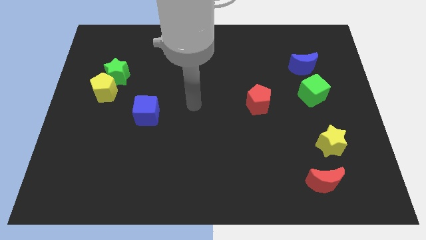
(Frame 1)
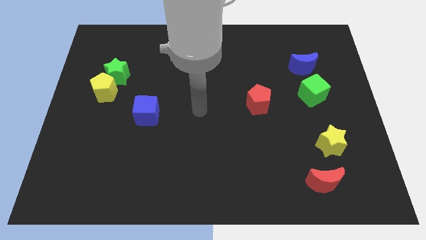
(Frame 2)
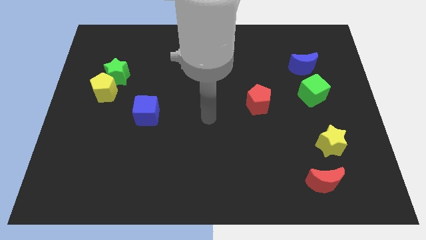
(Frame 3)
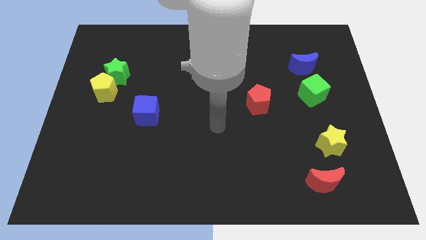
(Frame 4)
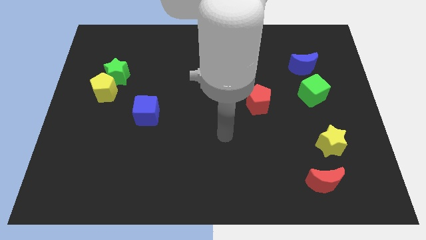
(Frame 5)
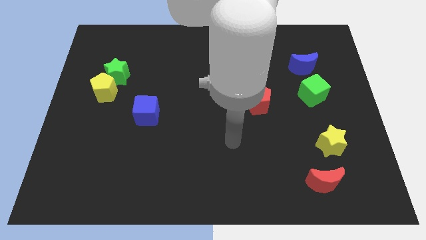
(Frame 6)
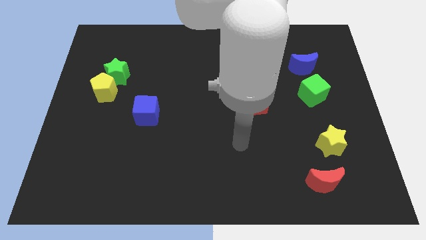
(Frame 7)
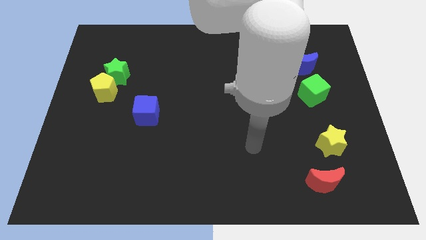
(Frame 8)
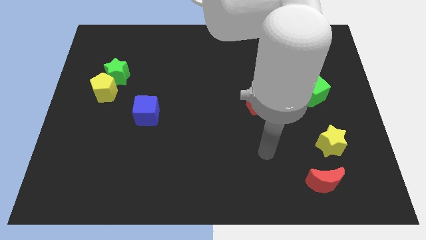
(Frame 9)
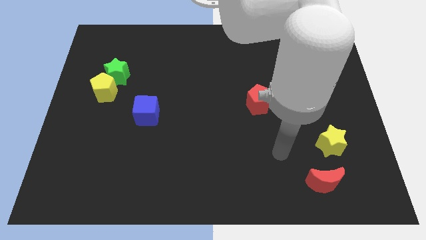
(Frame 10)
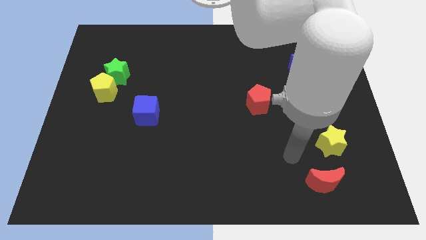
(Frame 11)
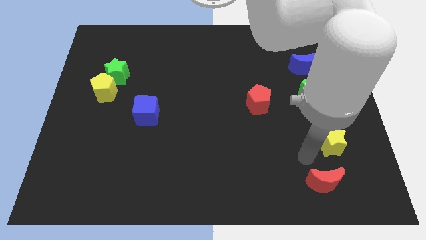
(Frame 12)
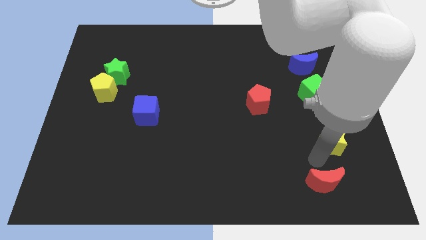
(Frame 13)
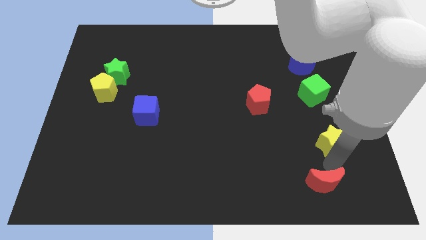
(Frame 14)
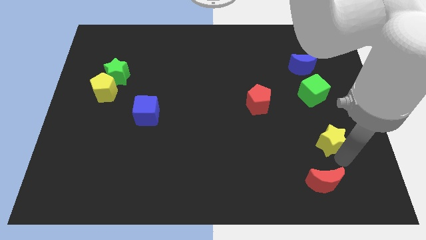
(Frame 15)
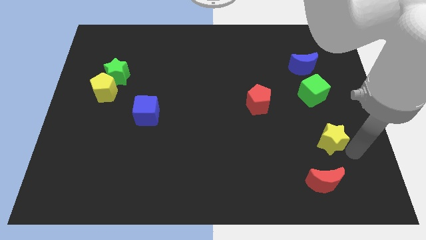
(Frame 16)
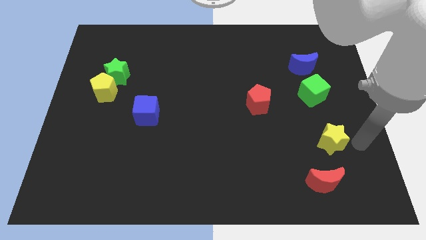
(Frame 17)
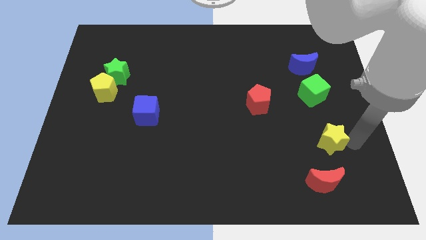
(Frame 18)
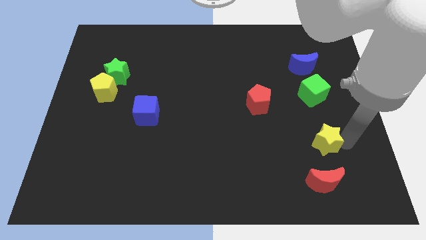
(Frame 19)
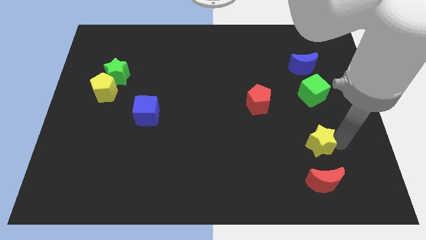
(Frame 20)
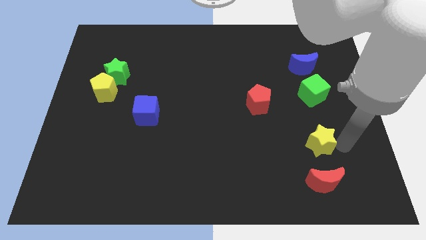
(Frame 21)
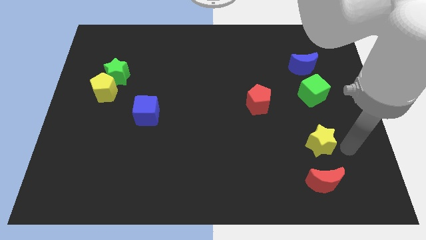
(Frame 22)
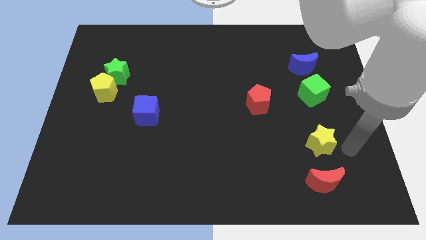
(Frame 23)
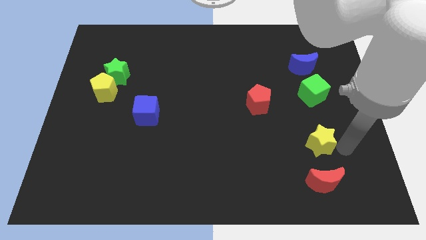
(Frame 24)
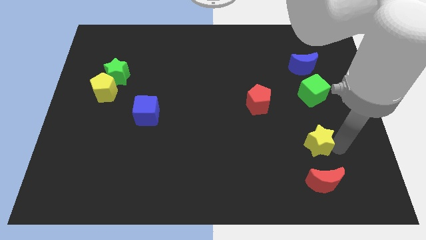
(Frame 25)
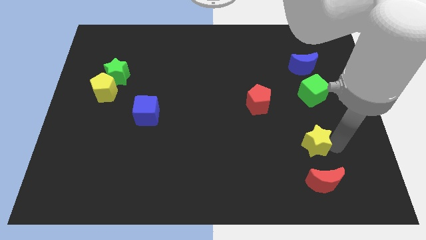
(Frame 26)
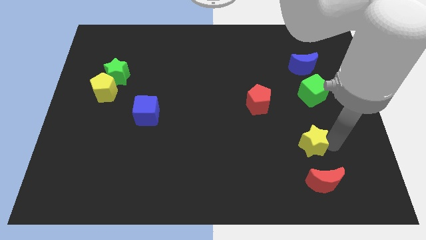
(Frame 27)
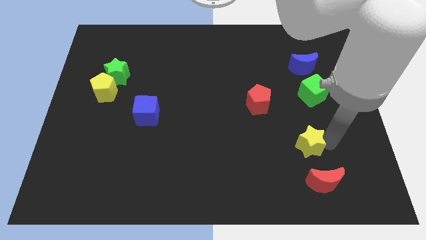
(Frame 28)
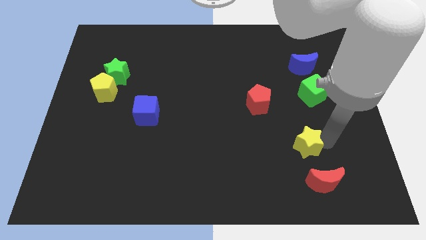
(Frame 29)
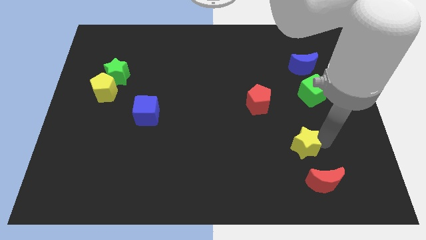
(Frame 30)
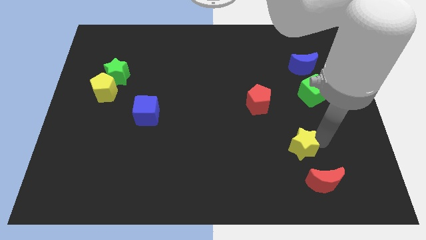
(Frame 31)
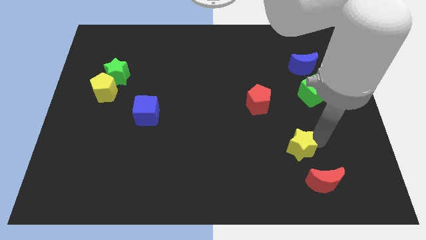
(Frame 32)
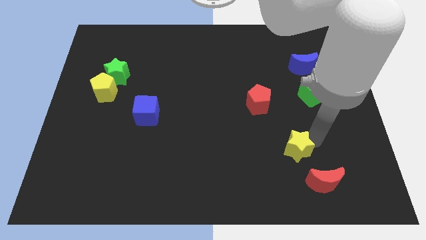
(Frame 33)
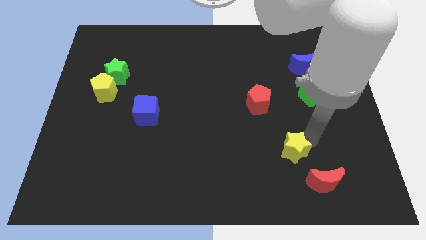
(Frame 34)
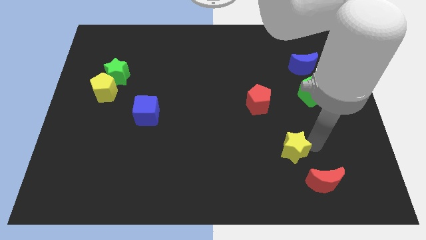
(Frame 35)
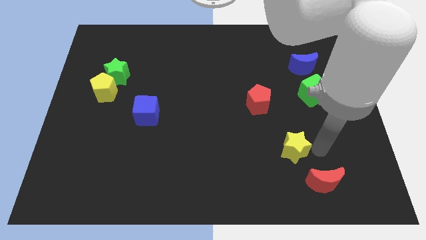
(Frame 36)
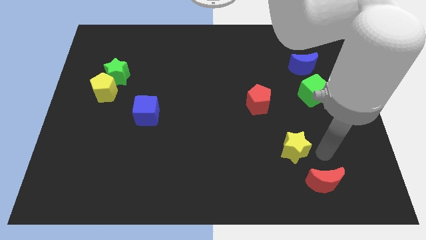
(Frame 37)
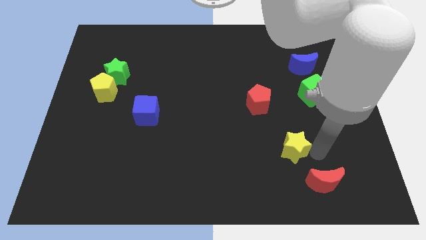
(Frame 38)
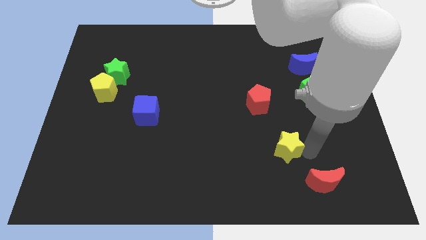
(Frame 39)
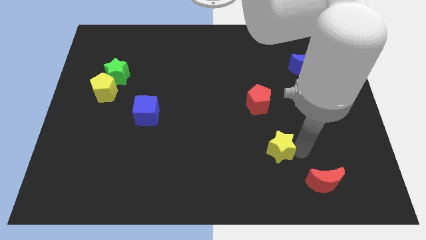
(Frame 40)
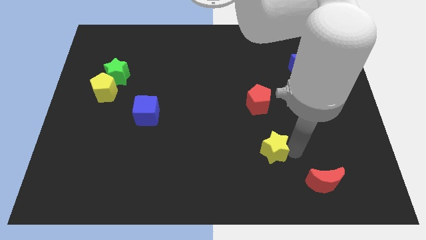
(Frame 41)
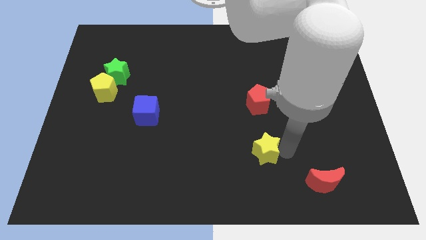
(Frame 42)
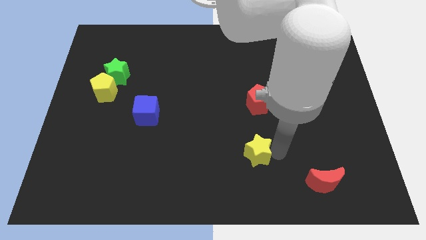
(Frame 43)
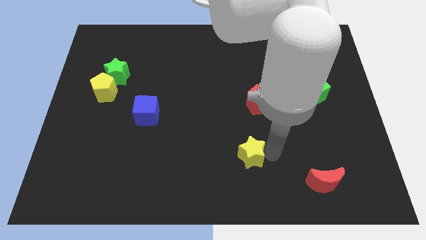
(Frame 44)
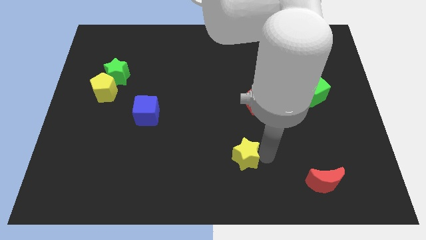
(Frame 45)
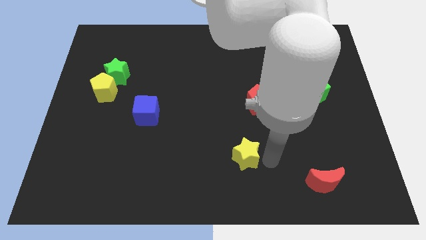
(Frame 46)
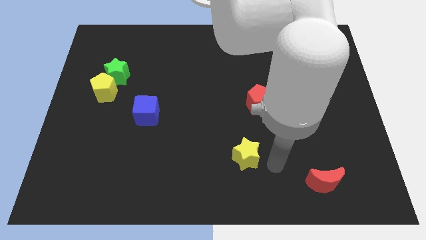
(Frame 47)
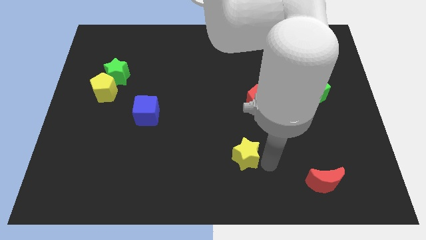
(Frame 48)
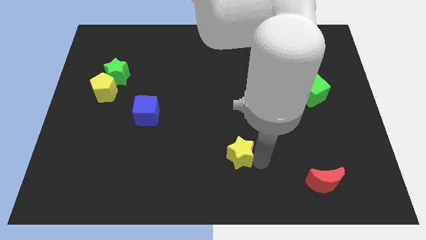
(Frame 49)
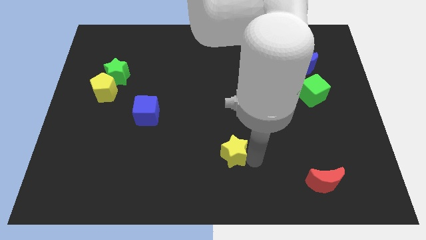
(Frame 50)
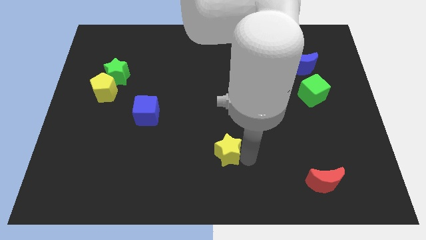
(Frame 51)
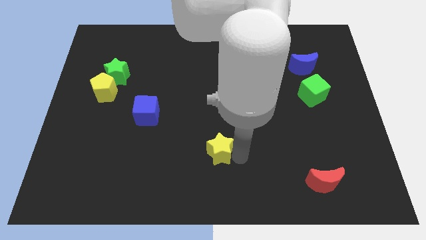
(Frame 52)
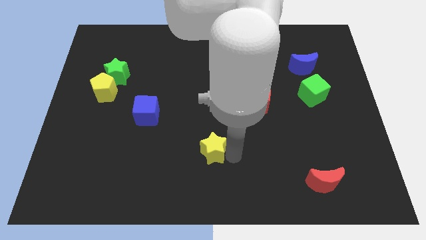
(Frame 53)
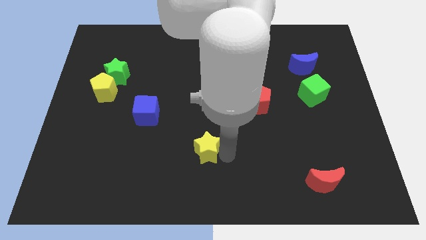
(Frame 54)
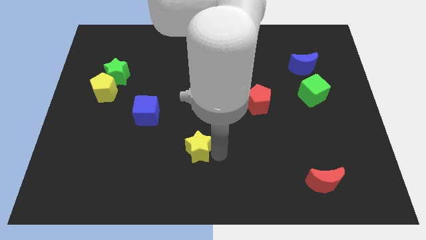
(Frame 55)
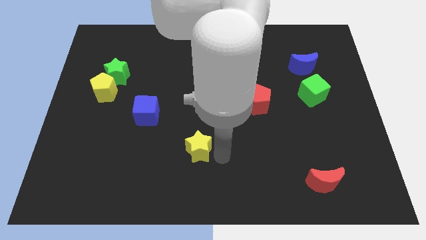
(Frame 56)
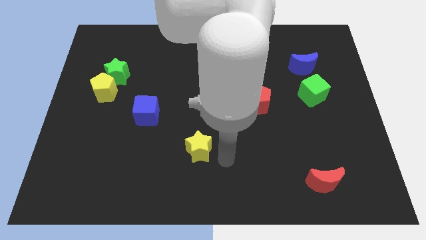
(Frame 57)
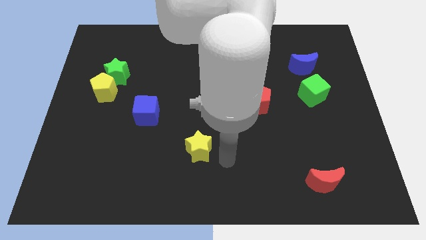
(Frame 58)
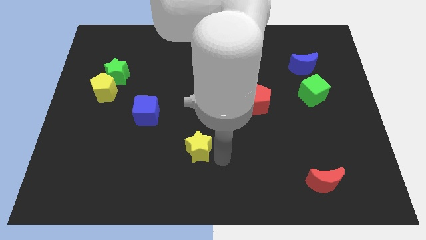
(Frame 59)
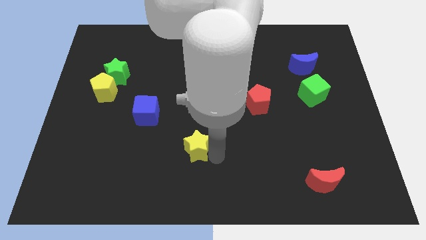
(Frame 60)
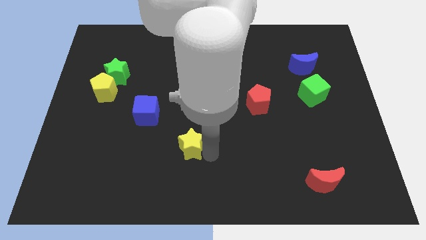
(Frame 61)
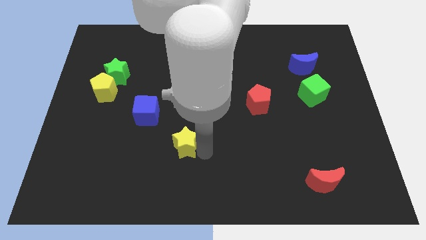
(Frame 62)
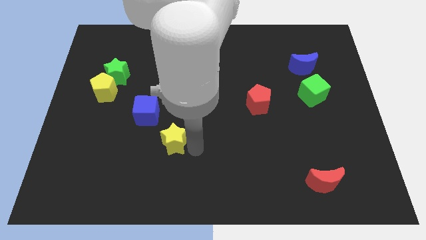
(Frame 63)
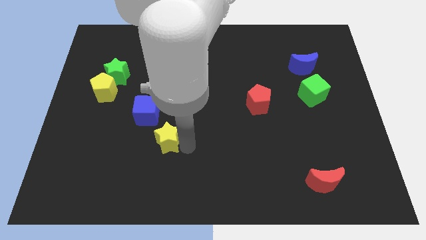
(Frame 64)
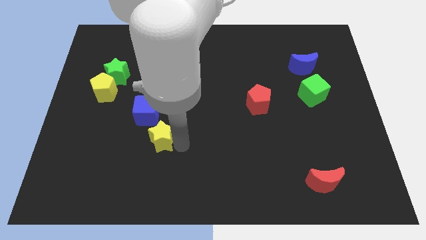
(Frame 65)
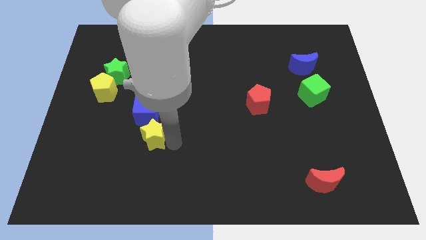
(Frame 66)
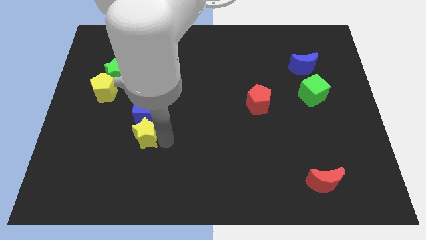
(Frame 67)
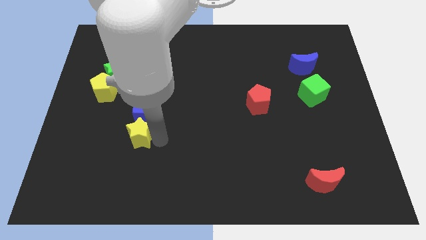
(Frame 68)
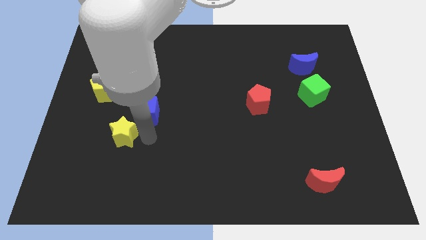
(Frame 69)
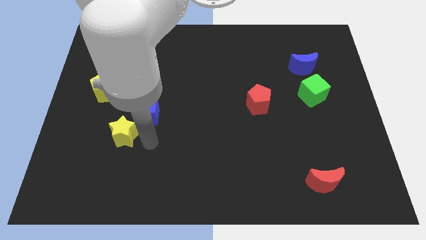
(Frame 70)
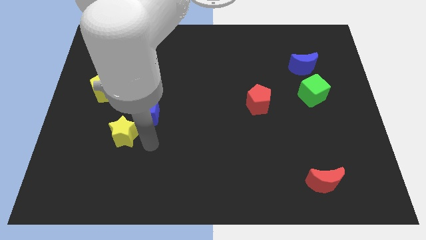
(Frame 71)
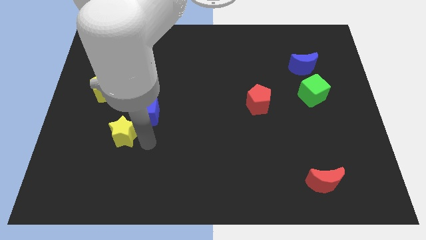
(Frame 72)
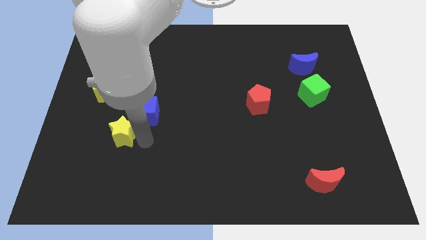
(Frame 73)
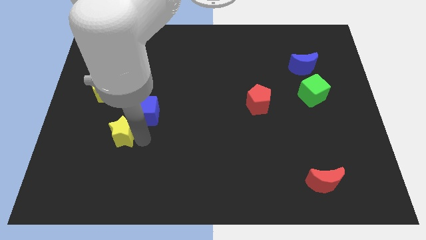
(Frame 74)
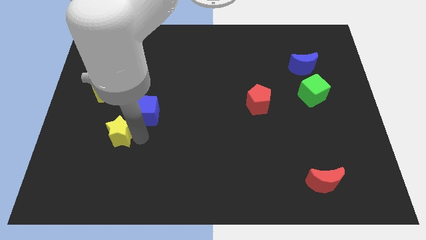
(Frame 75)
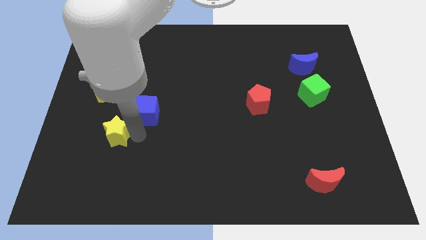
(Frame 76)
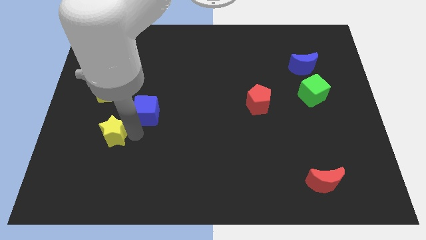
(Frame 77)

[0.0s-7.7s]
put the yellow star below the yellow pentagon

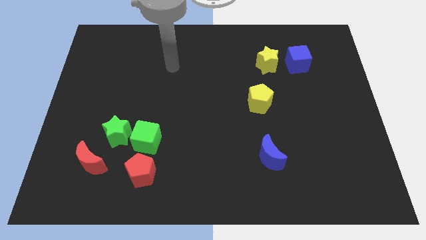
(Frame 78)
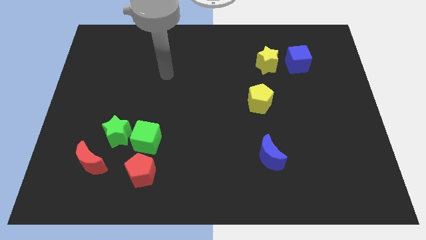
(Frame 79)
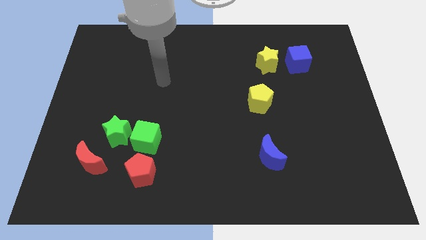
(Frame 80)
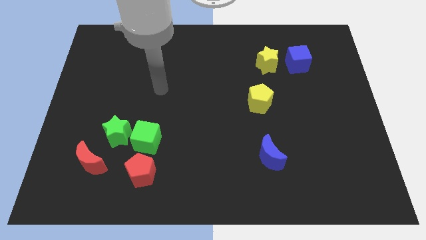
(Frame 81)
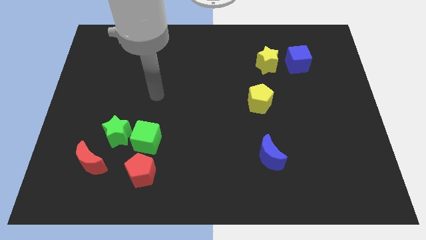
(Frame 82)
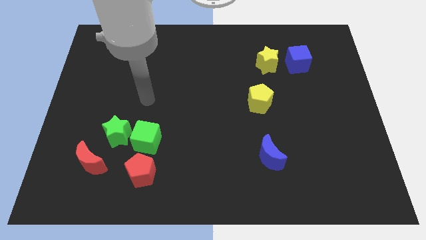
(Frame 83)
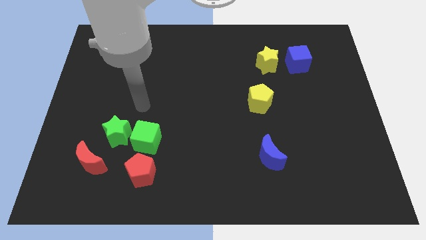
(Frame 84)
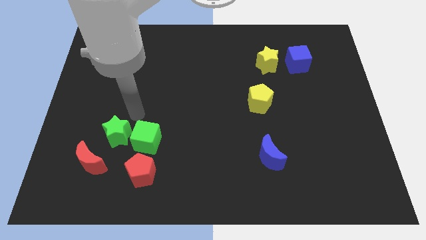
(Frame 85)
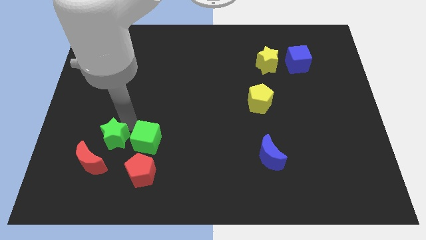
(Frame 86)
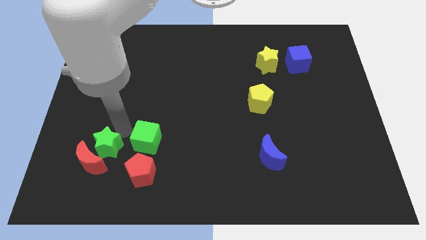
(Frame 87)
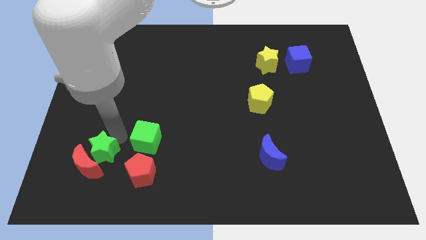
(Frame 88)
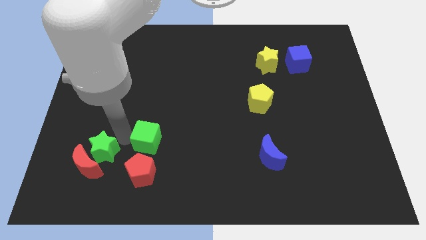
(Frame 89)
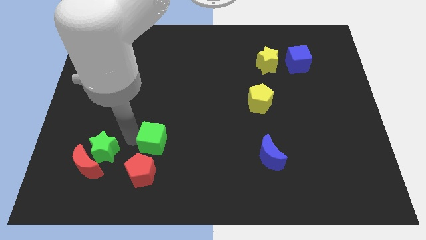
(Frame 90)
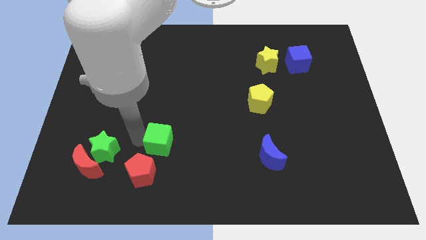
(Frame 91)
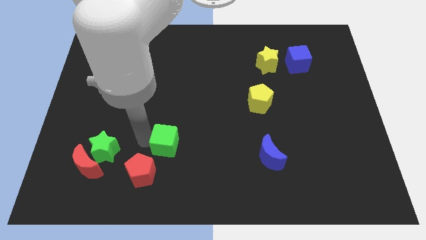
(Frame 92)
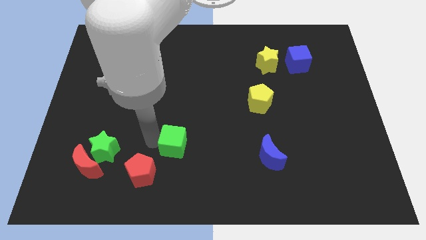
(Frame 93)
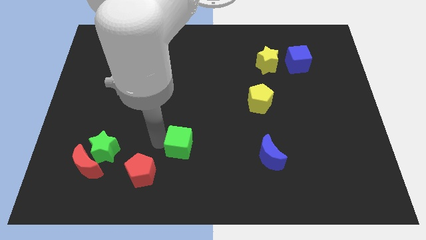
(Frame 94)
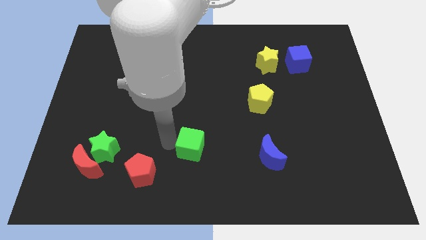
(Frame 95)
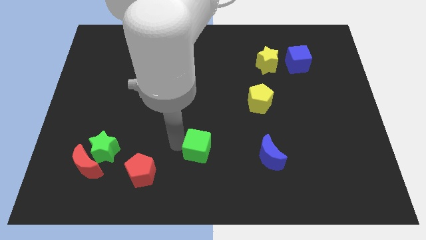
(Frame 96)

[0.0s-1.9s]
move the green cube left of the blue moon
